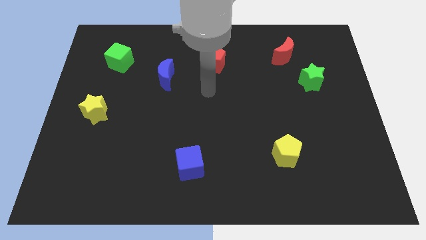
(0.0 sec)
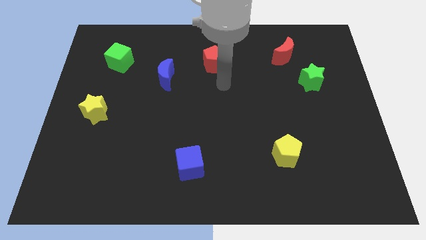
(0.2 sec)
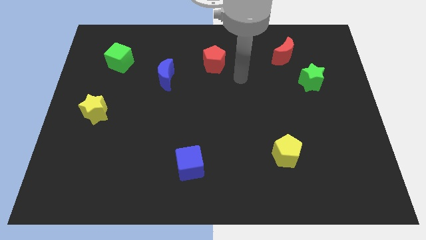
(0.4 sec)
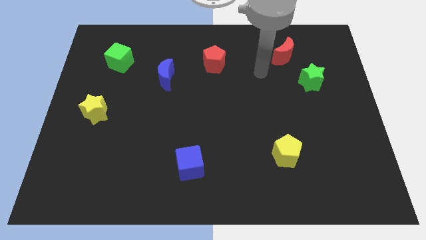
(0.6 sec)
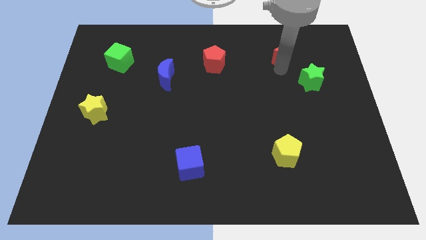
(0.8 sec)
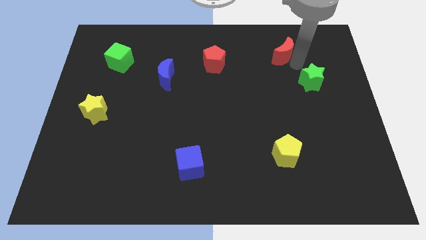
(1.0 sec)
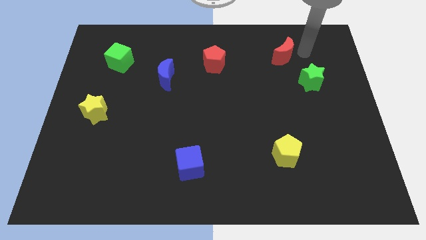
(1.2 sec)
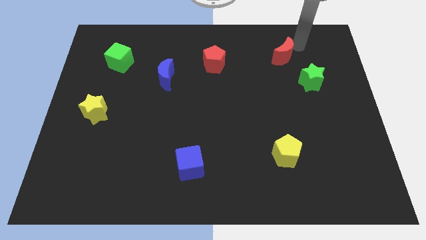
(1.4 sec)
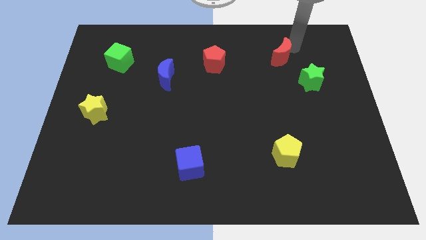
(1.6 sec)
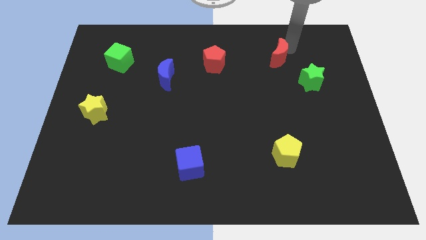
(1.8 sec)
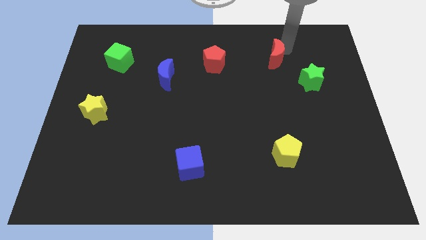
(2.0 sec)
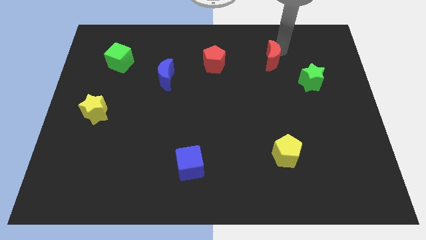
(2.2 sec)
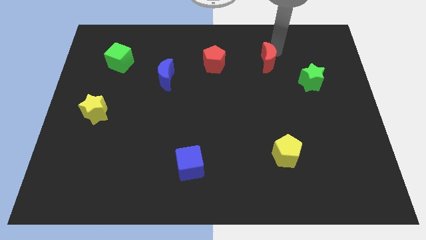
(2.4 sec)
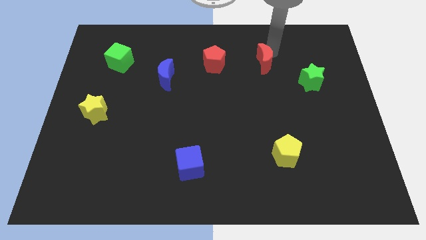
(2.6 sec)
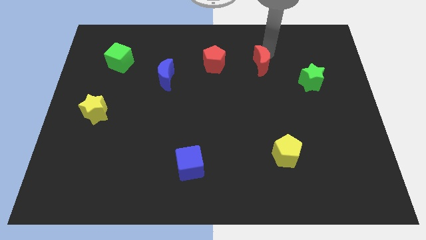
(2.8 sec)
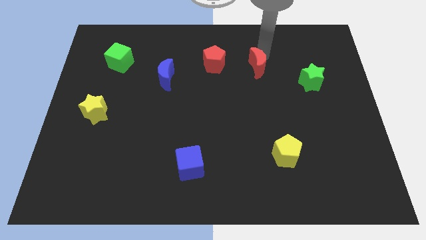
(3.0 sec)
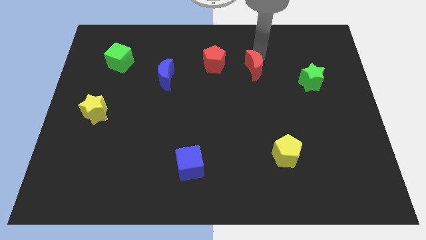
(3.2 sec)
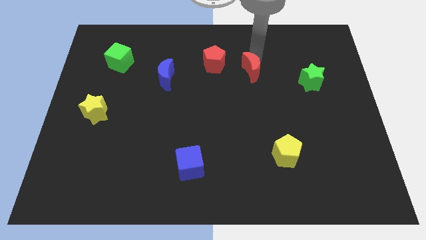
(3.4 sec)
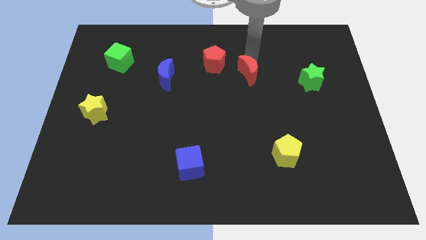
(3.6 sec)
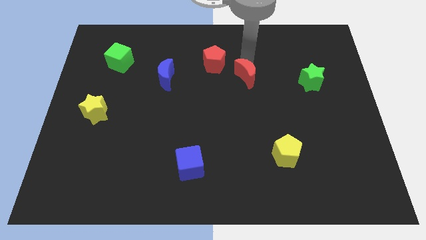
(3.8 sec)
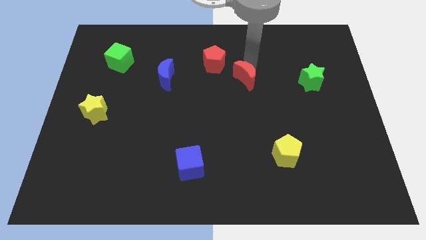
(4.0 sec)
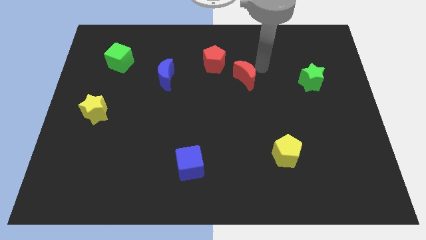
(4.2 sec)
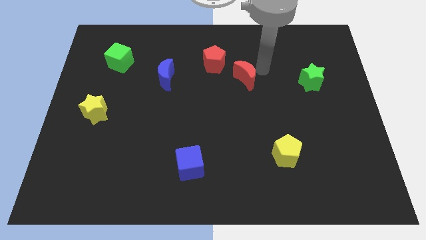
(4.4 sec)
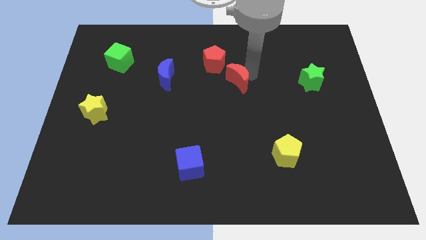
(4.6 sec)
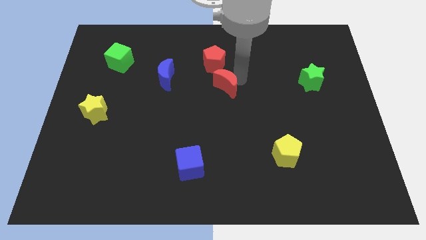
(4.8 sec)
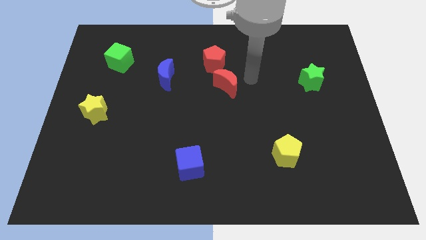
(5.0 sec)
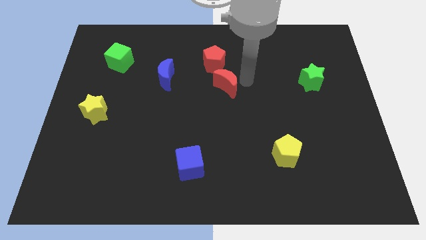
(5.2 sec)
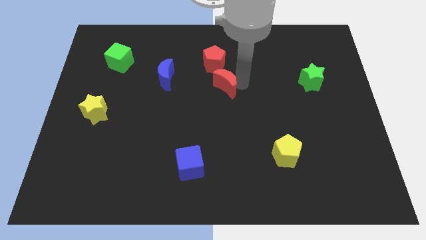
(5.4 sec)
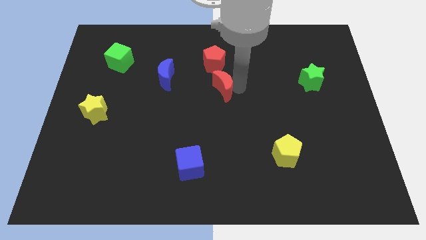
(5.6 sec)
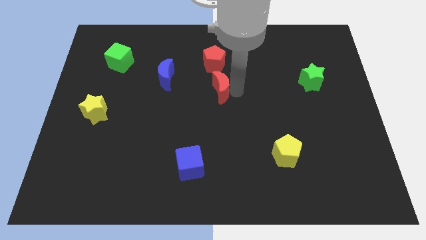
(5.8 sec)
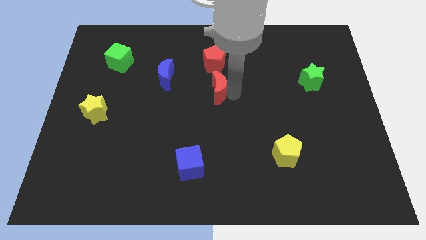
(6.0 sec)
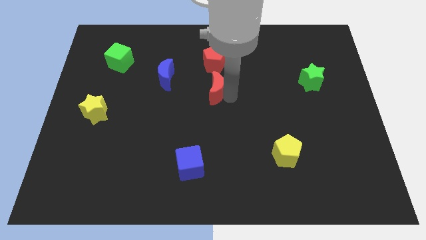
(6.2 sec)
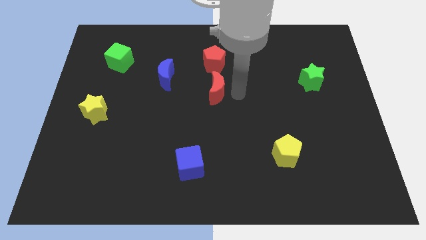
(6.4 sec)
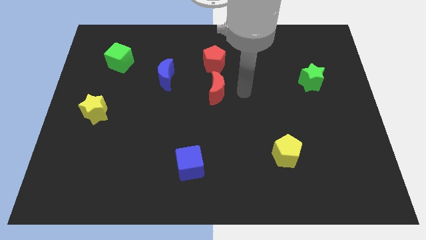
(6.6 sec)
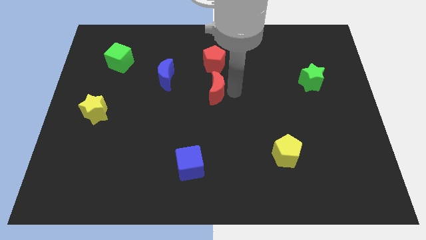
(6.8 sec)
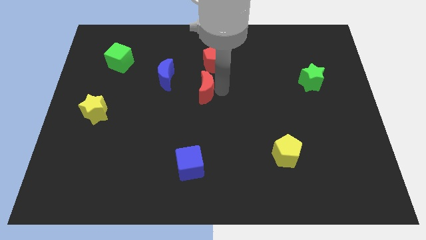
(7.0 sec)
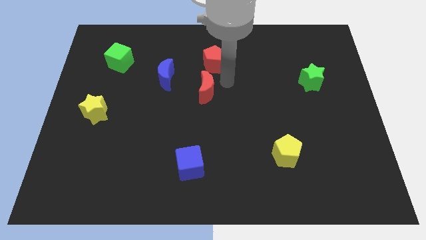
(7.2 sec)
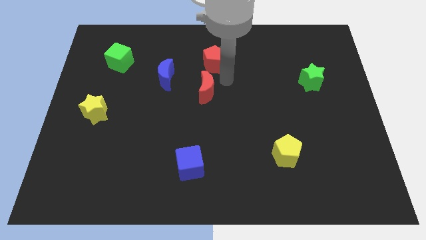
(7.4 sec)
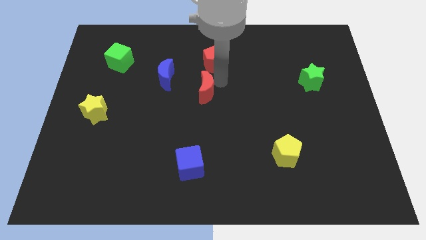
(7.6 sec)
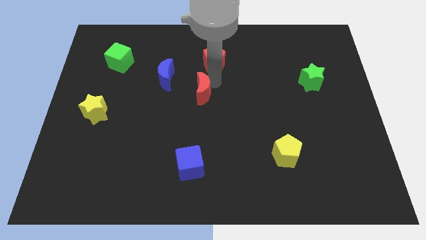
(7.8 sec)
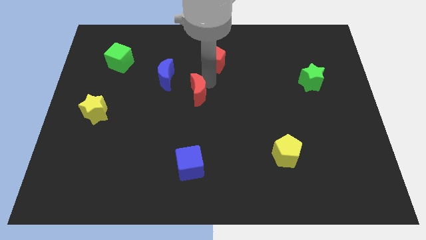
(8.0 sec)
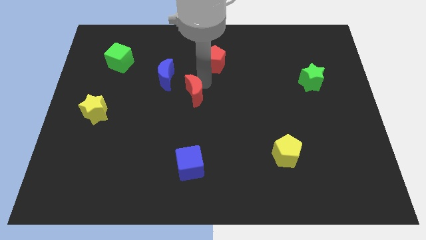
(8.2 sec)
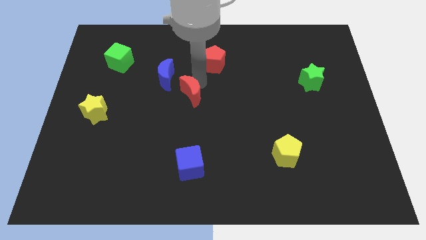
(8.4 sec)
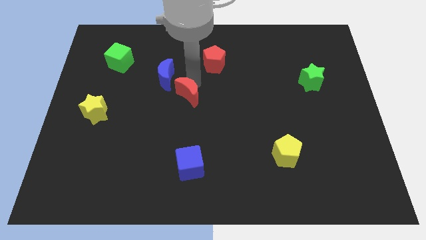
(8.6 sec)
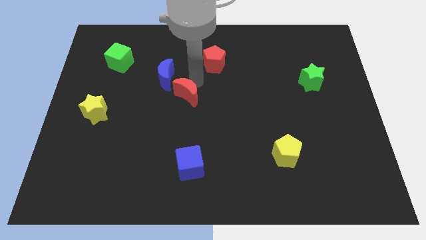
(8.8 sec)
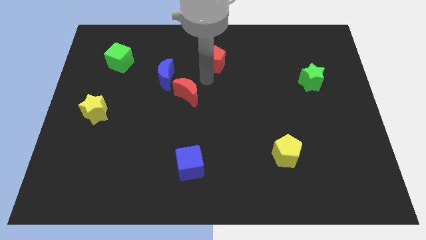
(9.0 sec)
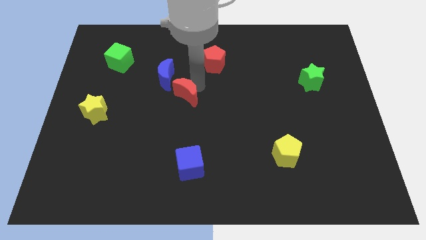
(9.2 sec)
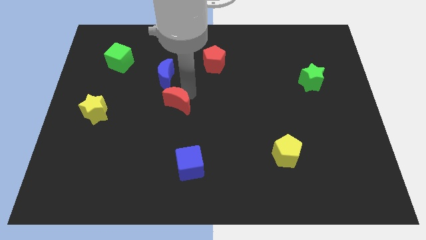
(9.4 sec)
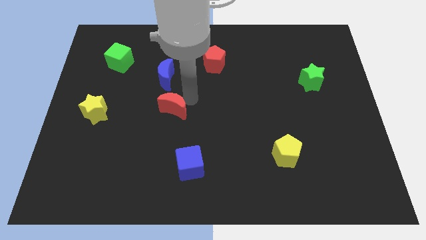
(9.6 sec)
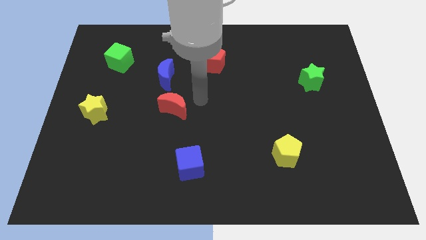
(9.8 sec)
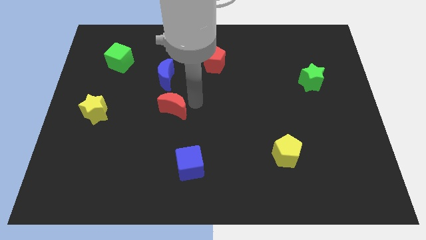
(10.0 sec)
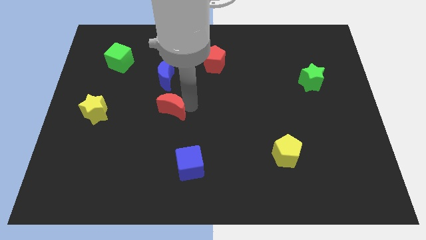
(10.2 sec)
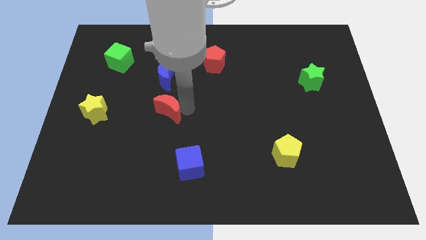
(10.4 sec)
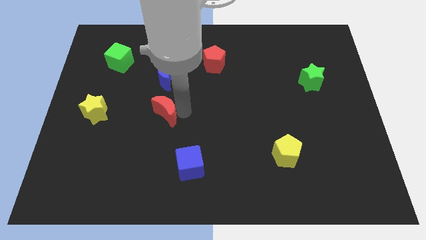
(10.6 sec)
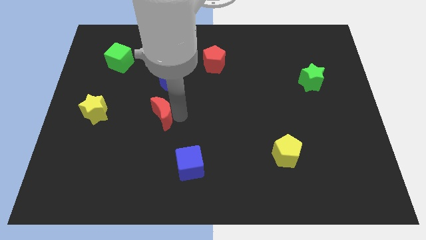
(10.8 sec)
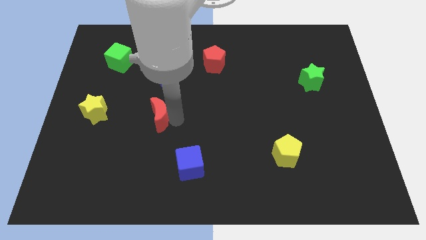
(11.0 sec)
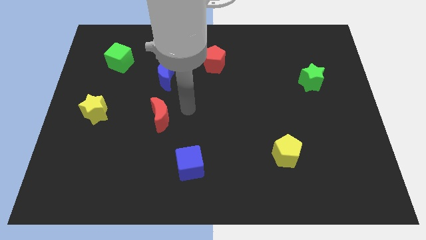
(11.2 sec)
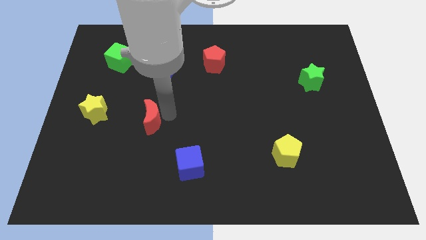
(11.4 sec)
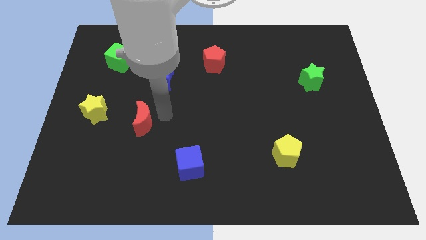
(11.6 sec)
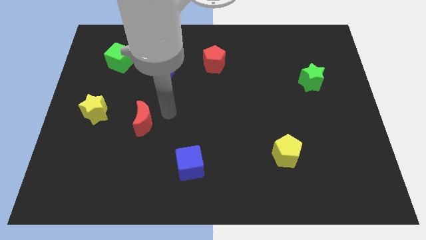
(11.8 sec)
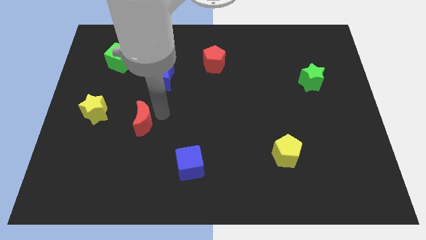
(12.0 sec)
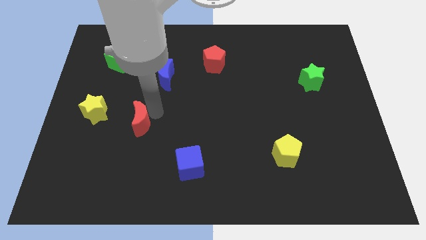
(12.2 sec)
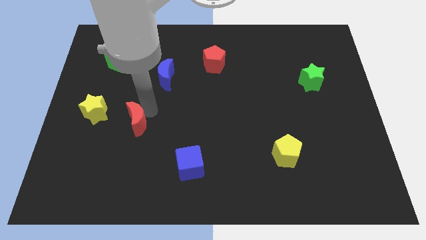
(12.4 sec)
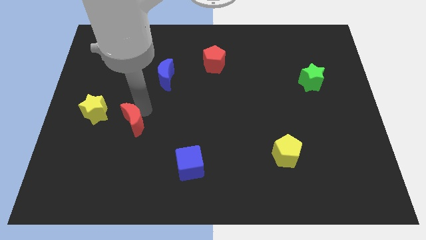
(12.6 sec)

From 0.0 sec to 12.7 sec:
put the red moon to the bottom right of the yellow star

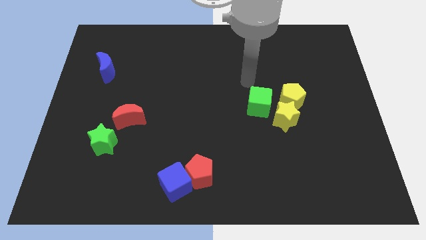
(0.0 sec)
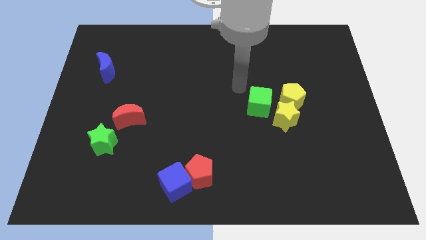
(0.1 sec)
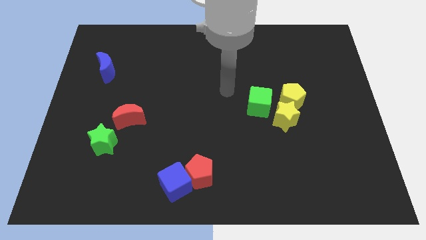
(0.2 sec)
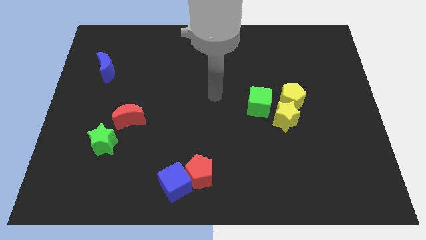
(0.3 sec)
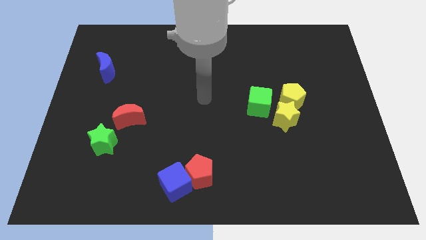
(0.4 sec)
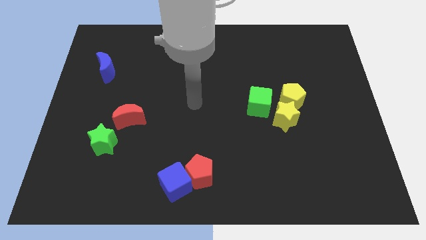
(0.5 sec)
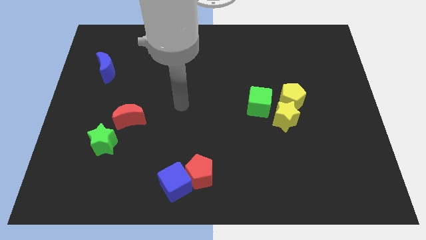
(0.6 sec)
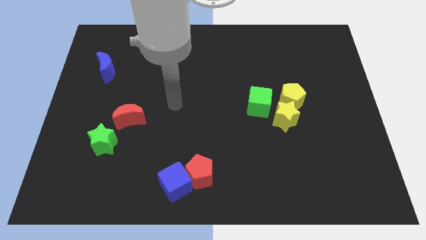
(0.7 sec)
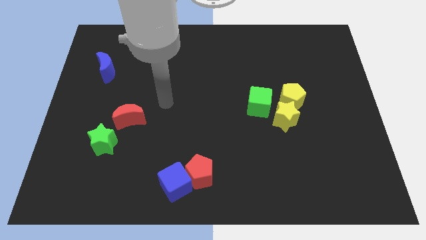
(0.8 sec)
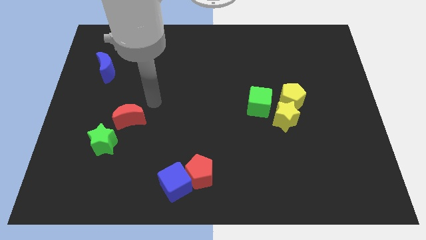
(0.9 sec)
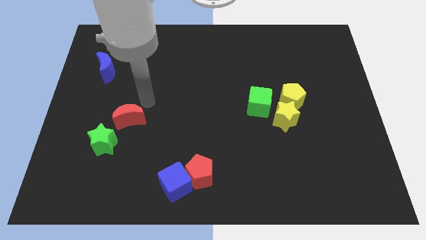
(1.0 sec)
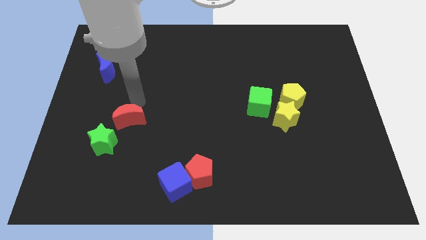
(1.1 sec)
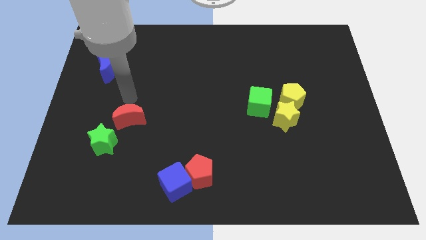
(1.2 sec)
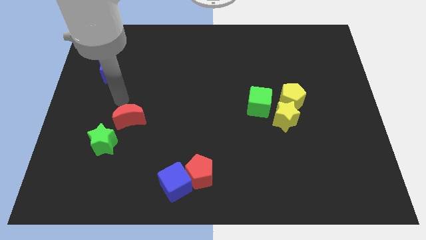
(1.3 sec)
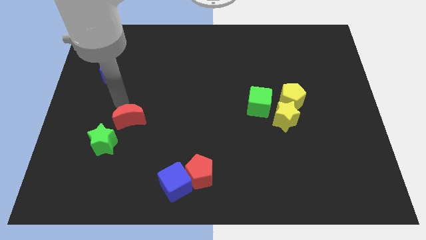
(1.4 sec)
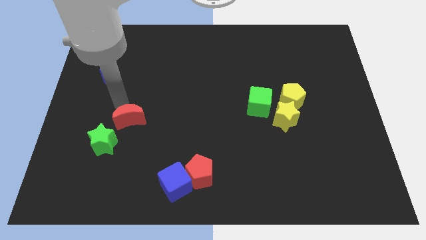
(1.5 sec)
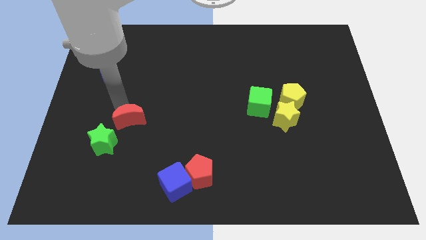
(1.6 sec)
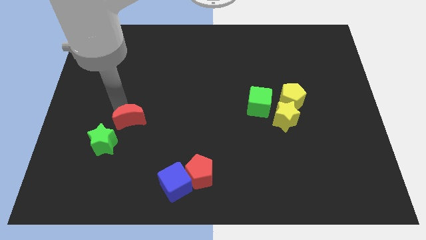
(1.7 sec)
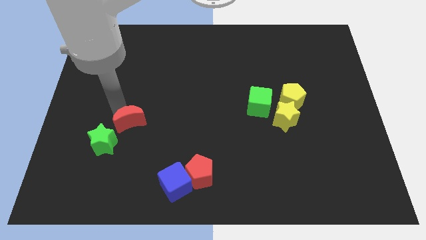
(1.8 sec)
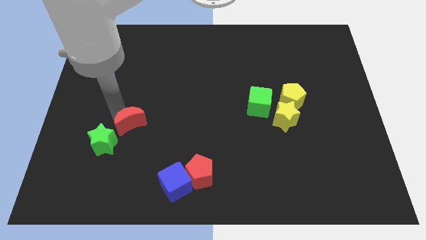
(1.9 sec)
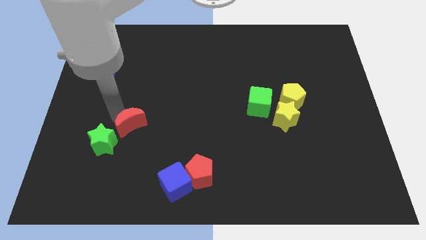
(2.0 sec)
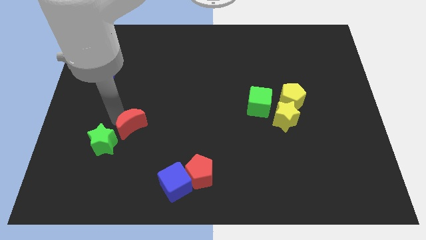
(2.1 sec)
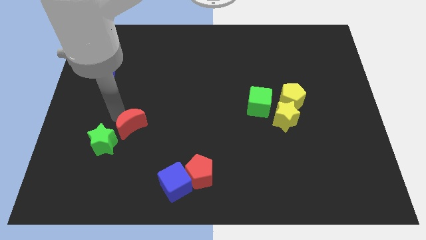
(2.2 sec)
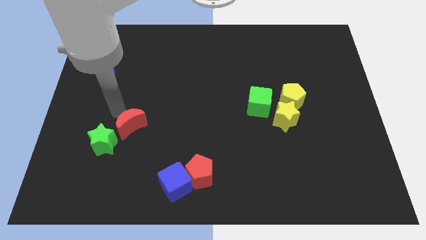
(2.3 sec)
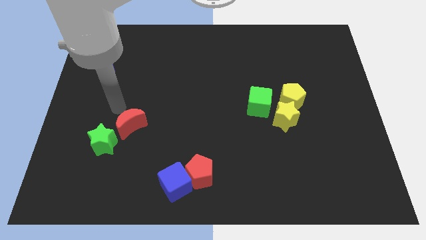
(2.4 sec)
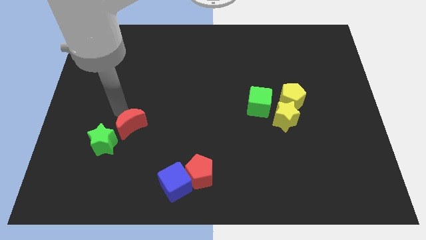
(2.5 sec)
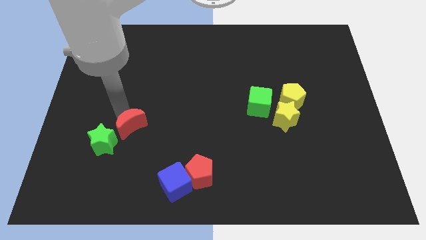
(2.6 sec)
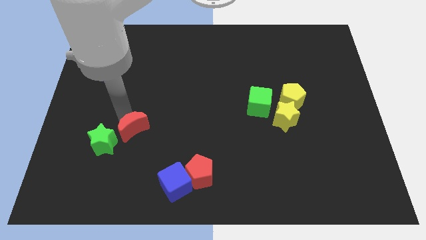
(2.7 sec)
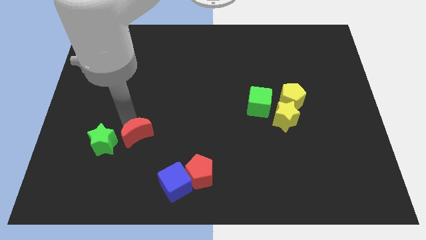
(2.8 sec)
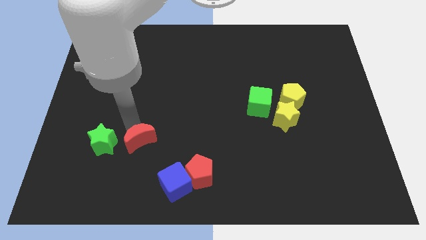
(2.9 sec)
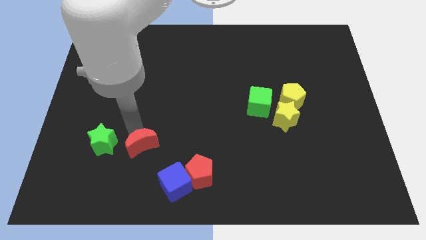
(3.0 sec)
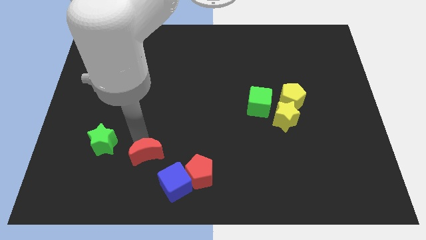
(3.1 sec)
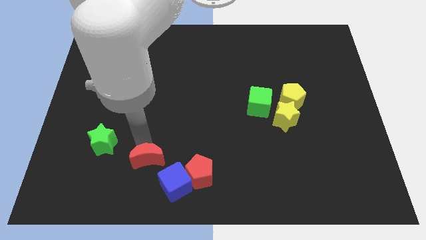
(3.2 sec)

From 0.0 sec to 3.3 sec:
push the red moon to the left side of the red pentagon
